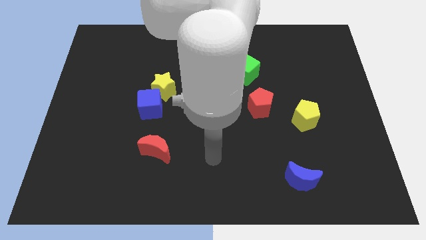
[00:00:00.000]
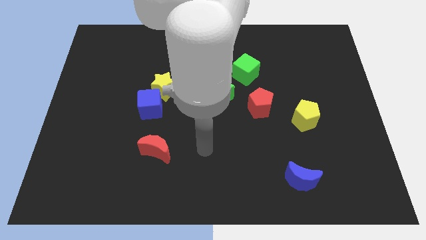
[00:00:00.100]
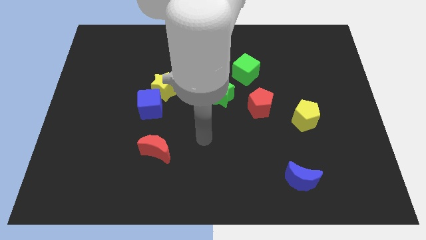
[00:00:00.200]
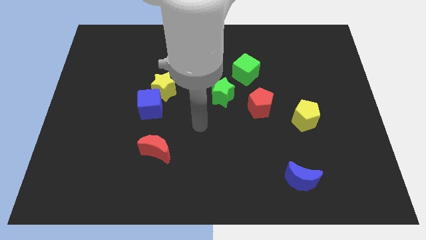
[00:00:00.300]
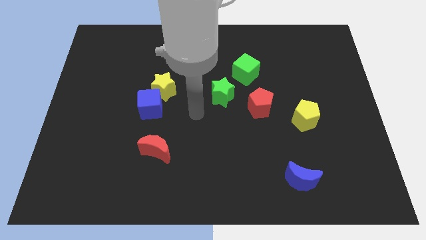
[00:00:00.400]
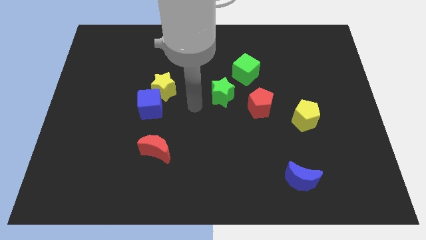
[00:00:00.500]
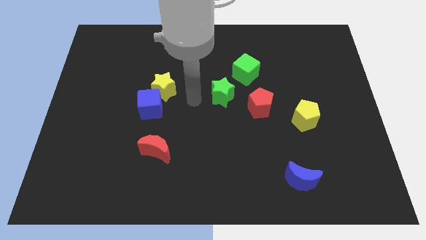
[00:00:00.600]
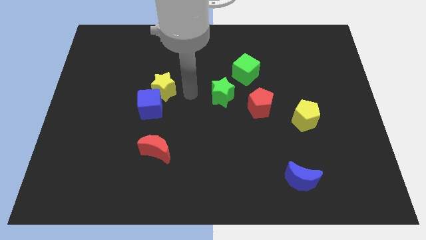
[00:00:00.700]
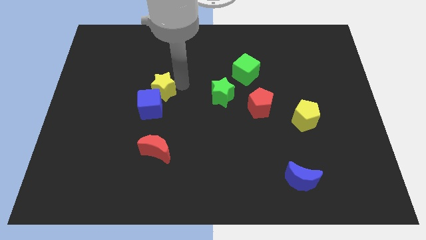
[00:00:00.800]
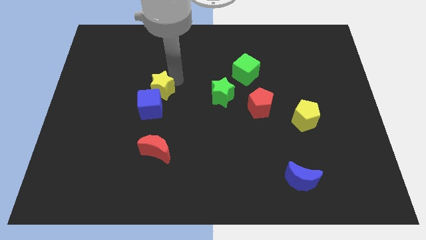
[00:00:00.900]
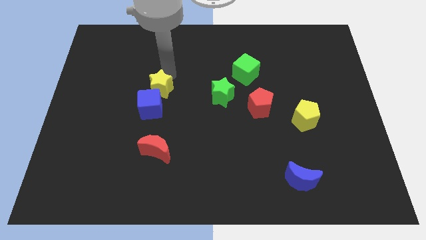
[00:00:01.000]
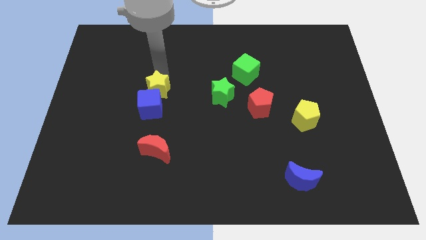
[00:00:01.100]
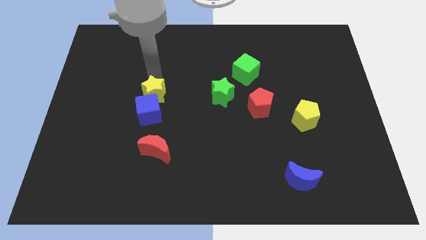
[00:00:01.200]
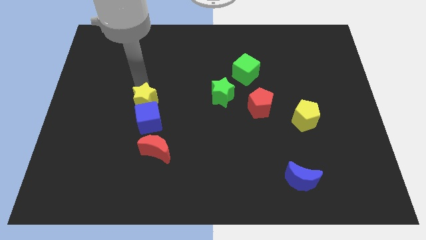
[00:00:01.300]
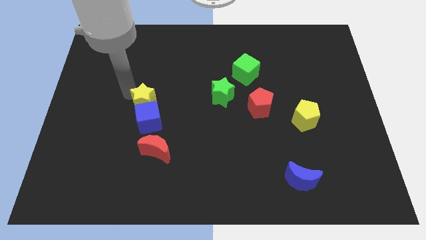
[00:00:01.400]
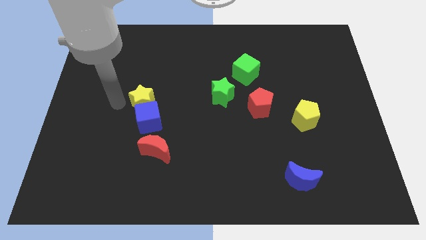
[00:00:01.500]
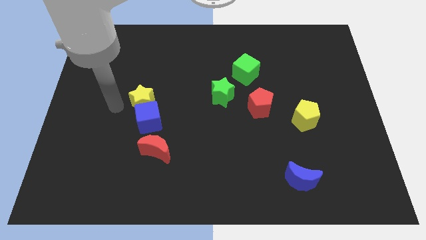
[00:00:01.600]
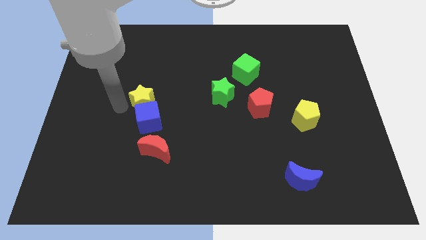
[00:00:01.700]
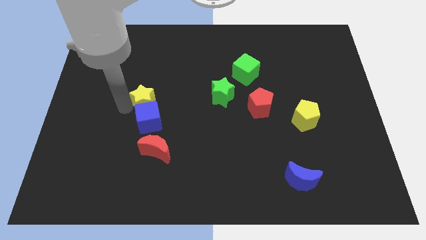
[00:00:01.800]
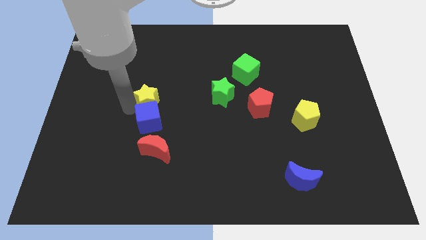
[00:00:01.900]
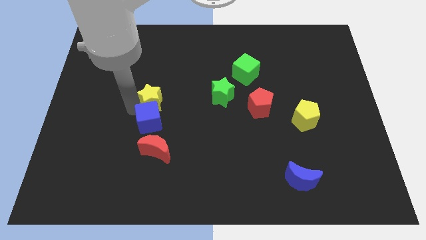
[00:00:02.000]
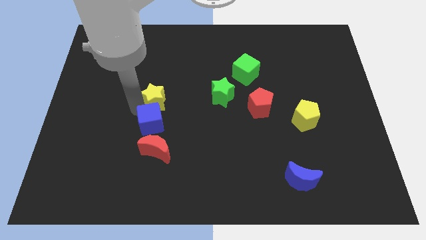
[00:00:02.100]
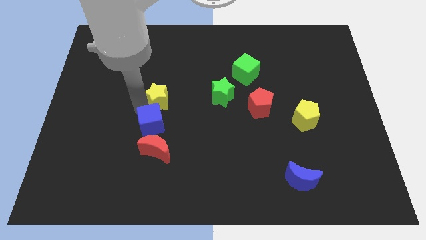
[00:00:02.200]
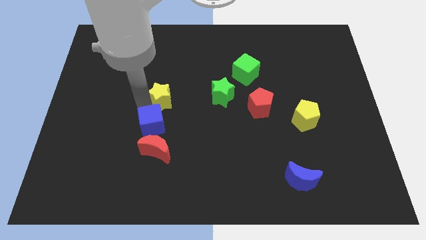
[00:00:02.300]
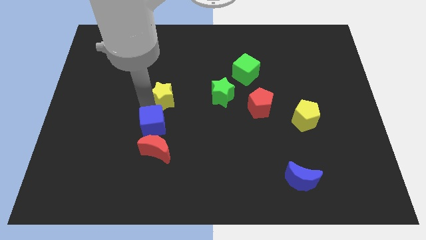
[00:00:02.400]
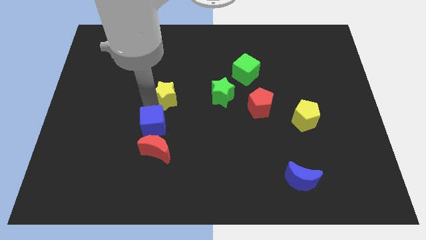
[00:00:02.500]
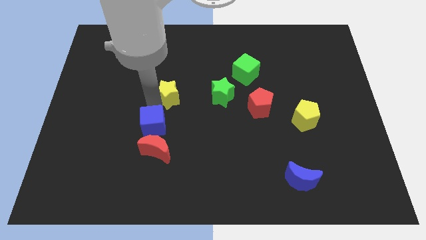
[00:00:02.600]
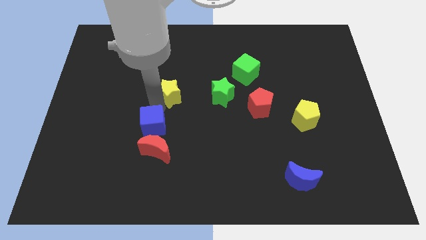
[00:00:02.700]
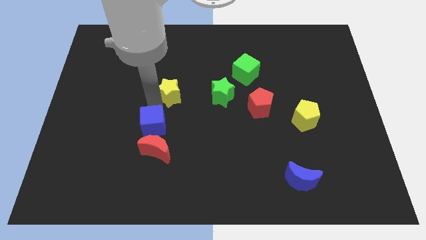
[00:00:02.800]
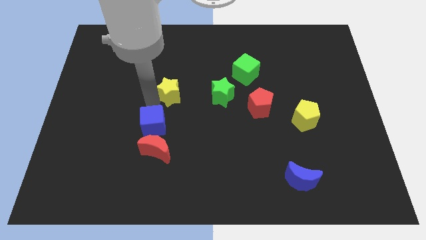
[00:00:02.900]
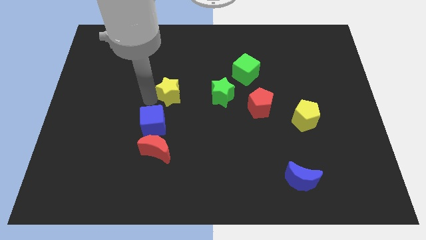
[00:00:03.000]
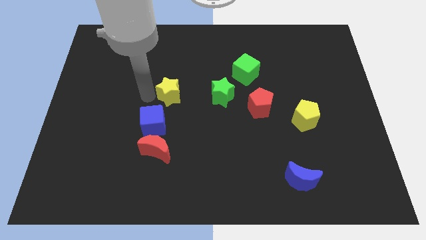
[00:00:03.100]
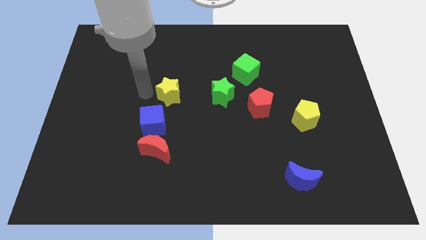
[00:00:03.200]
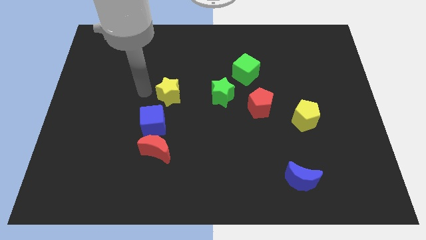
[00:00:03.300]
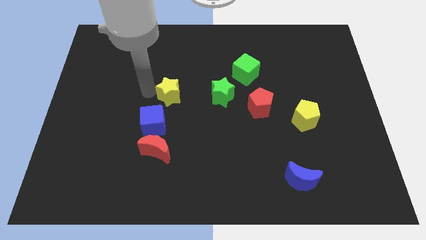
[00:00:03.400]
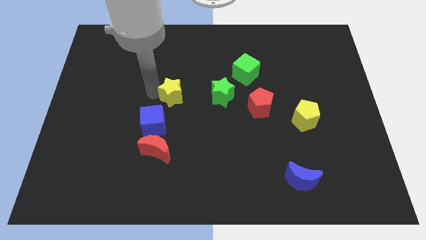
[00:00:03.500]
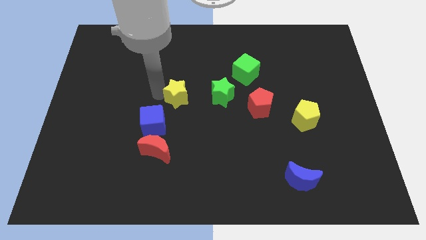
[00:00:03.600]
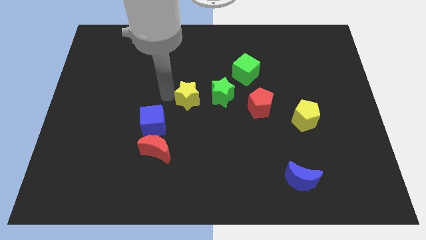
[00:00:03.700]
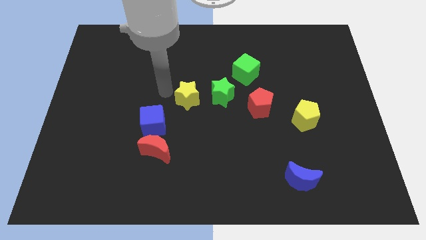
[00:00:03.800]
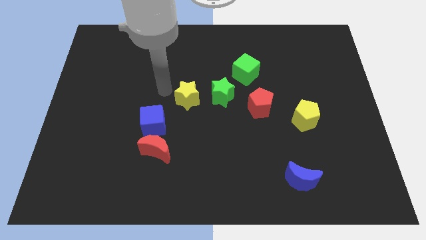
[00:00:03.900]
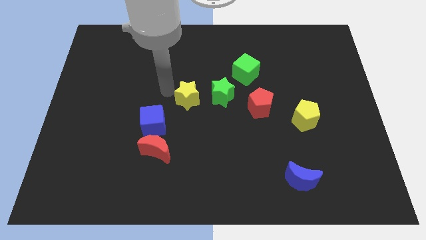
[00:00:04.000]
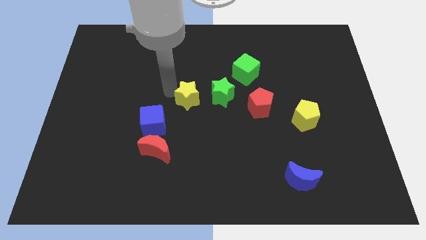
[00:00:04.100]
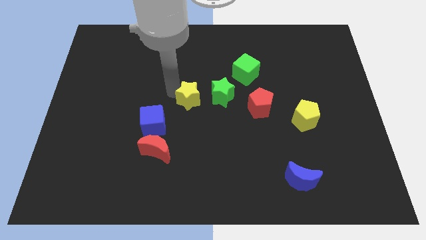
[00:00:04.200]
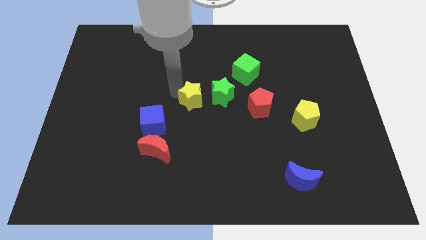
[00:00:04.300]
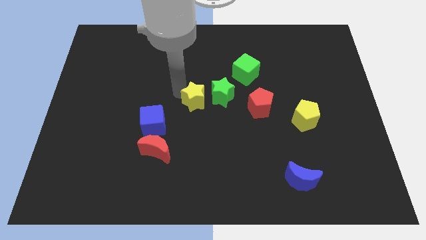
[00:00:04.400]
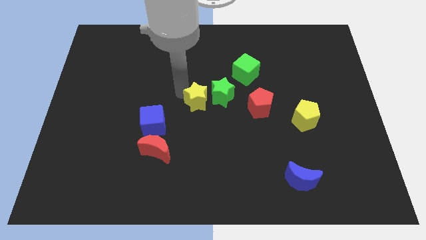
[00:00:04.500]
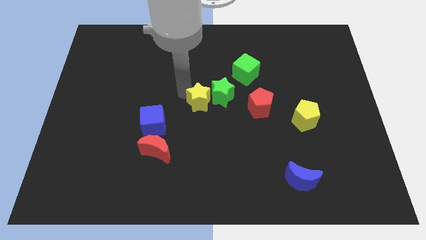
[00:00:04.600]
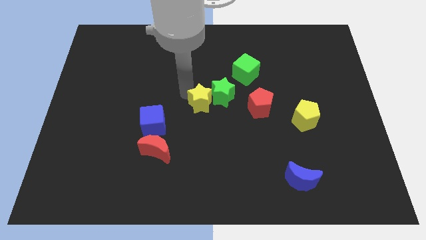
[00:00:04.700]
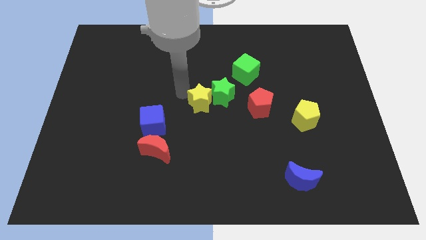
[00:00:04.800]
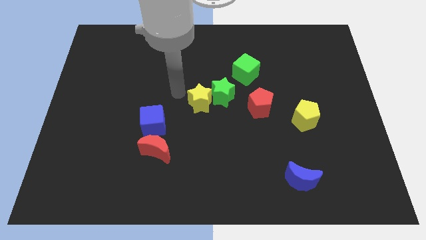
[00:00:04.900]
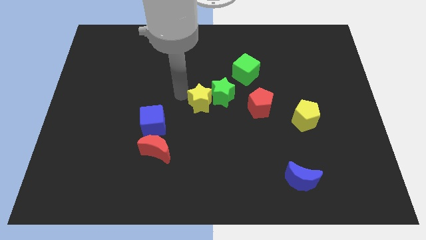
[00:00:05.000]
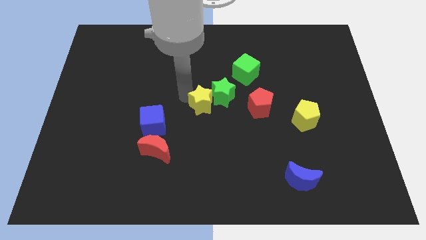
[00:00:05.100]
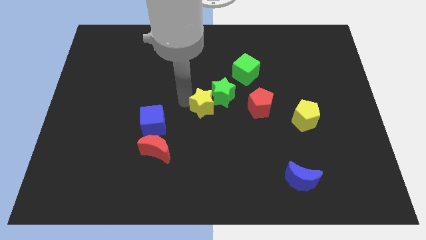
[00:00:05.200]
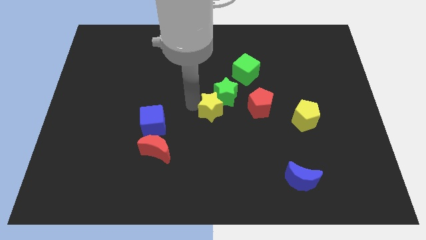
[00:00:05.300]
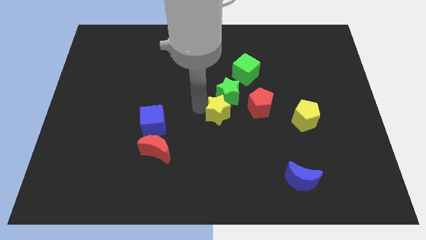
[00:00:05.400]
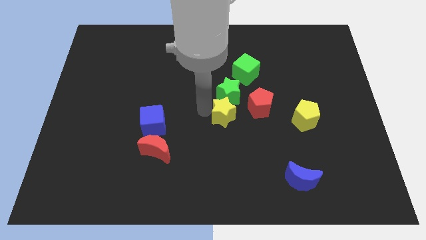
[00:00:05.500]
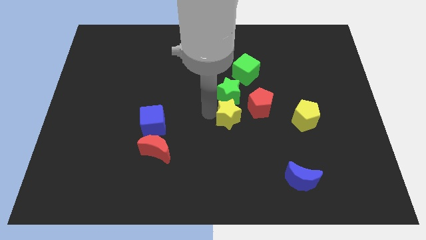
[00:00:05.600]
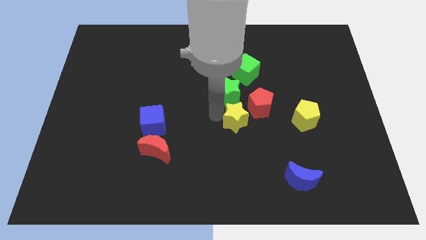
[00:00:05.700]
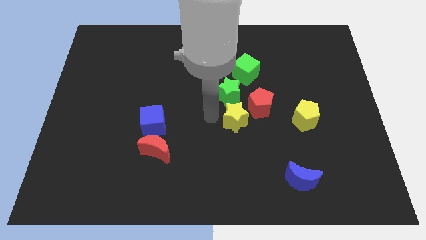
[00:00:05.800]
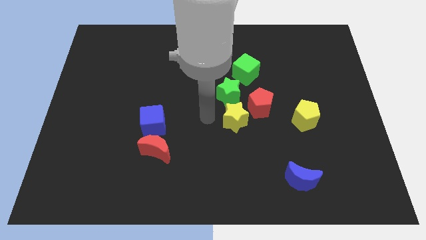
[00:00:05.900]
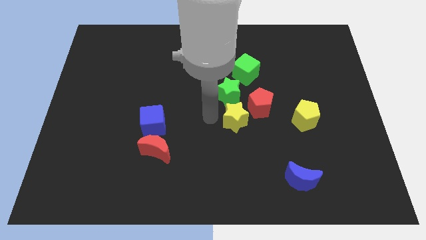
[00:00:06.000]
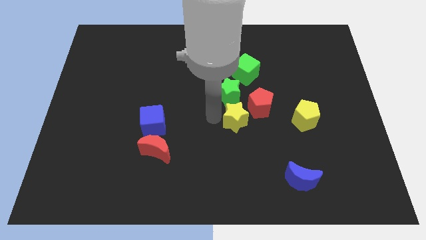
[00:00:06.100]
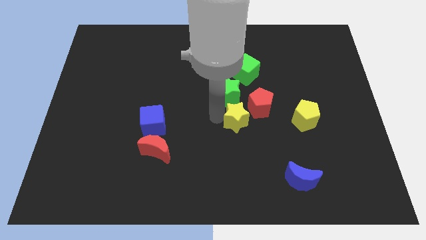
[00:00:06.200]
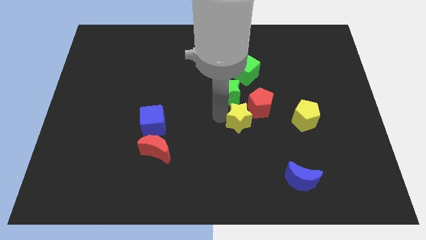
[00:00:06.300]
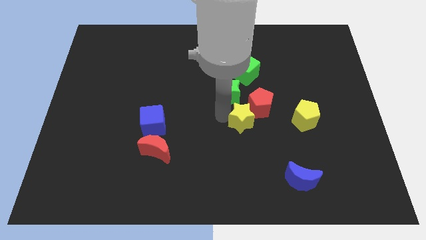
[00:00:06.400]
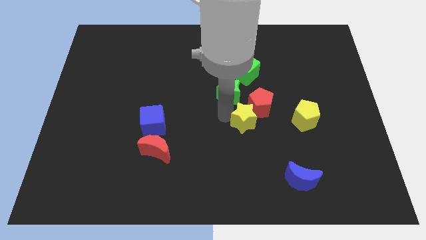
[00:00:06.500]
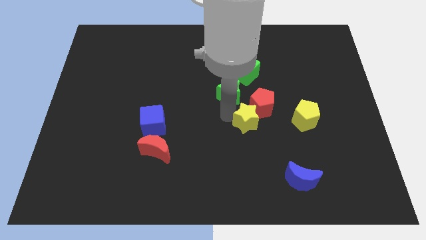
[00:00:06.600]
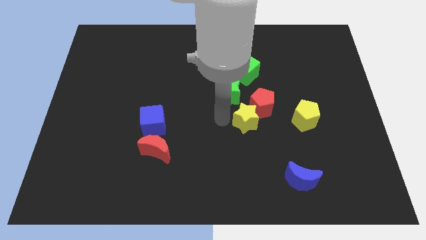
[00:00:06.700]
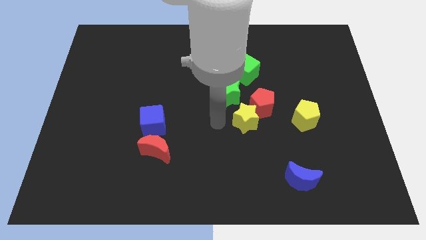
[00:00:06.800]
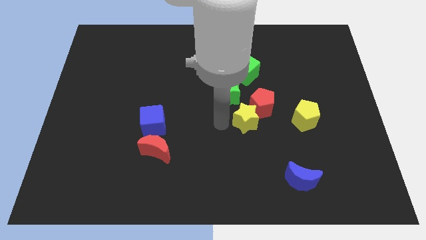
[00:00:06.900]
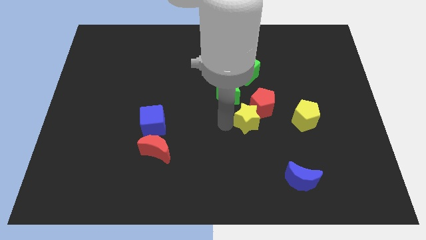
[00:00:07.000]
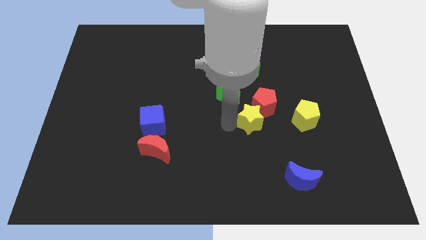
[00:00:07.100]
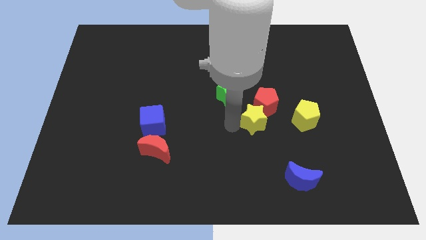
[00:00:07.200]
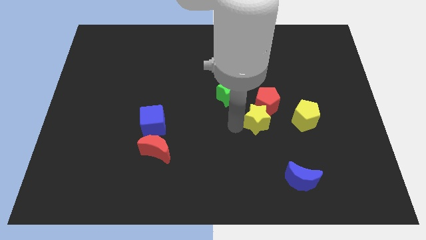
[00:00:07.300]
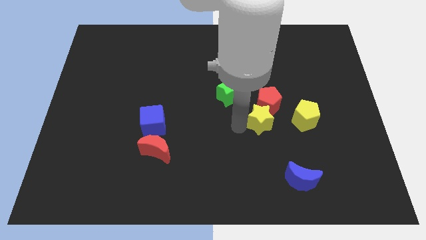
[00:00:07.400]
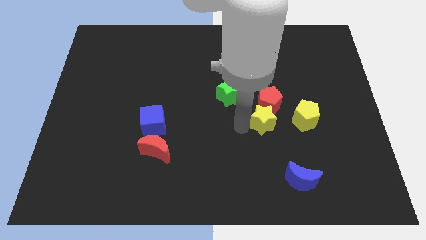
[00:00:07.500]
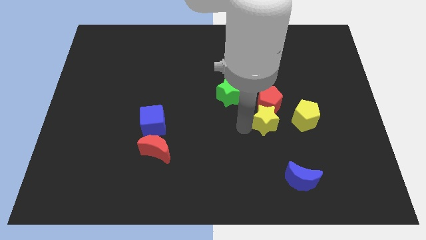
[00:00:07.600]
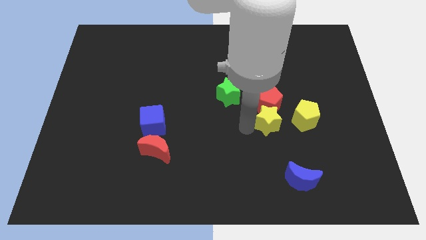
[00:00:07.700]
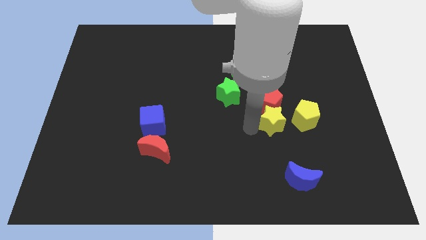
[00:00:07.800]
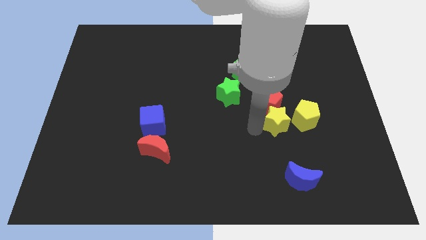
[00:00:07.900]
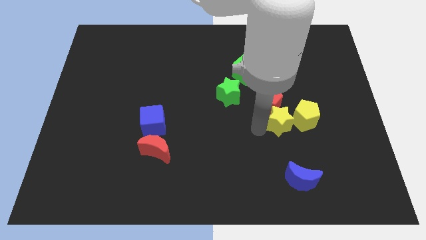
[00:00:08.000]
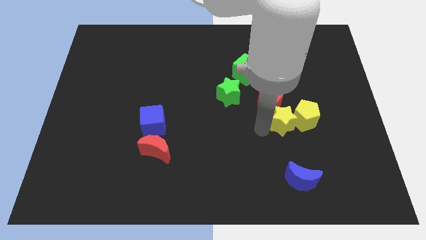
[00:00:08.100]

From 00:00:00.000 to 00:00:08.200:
slide the yellow star close to the yellow pentagon
